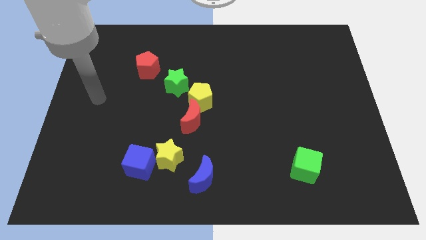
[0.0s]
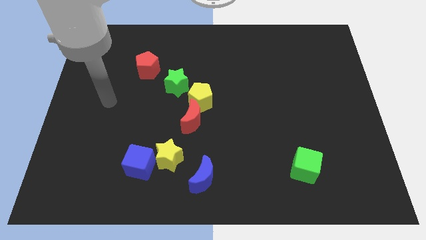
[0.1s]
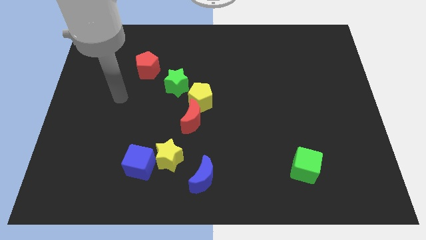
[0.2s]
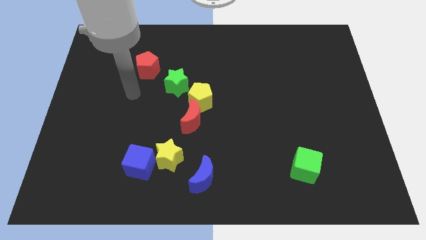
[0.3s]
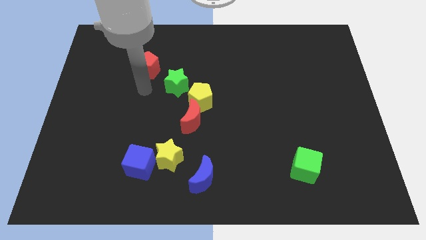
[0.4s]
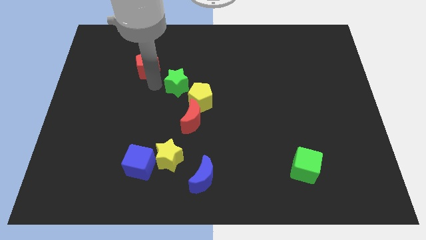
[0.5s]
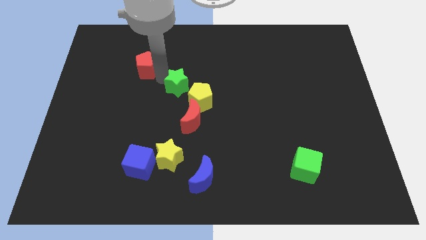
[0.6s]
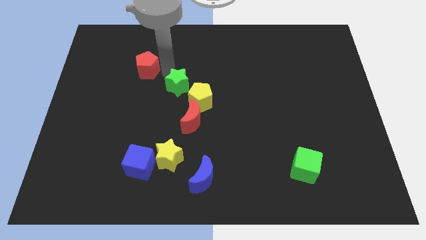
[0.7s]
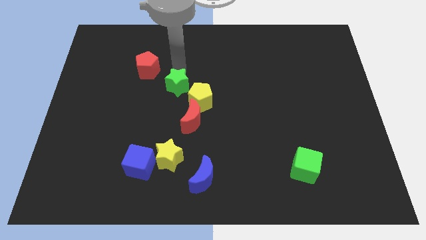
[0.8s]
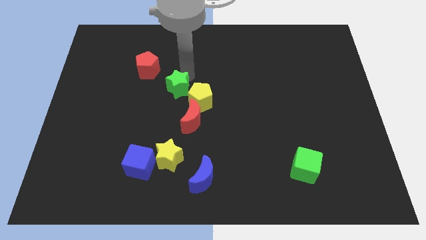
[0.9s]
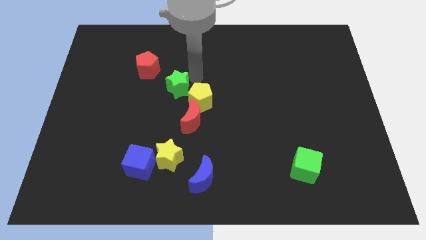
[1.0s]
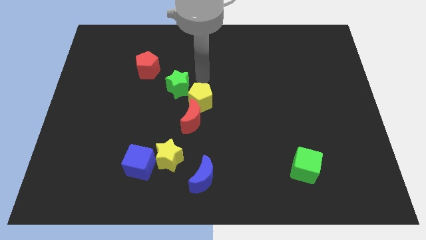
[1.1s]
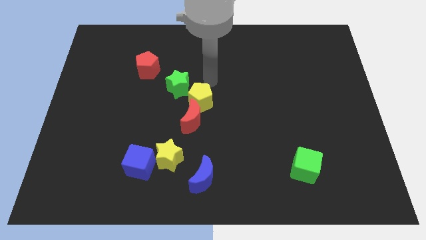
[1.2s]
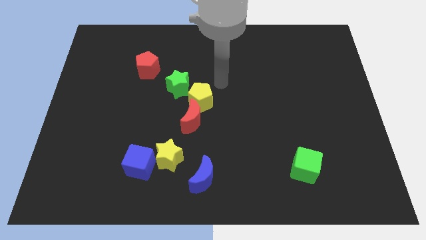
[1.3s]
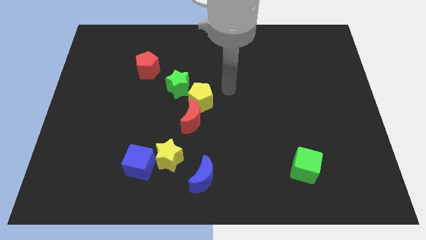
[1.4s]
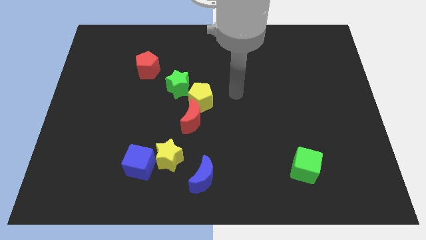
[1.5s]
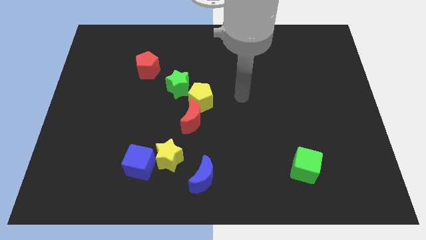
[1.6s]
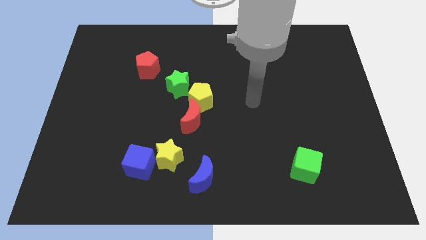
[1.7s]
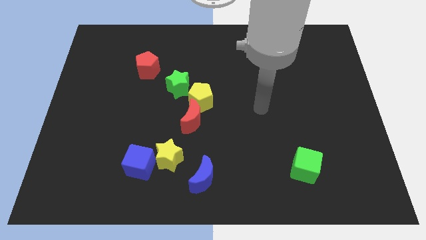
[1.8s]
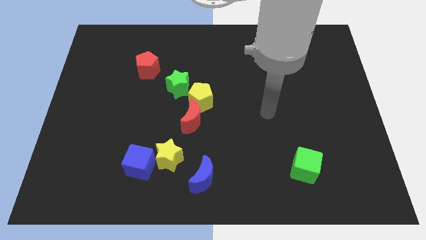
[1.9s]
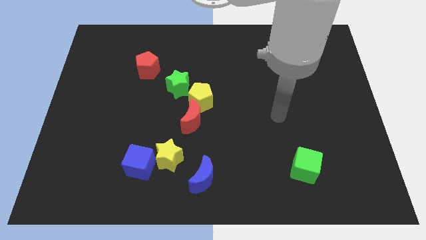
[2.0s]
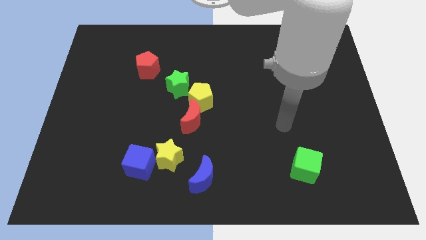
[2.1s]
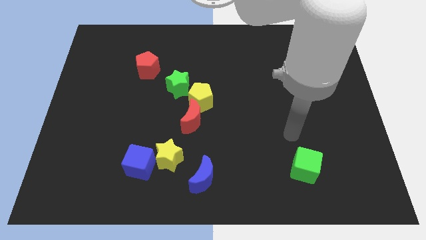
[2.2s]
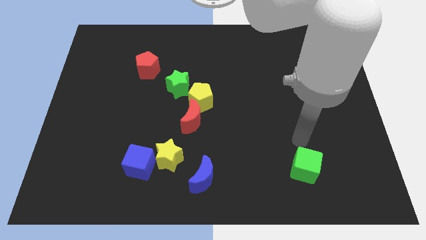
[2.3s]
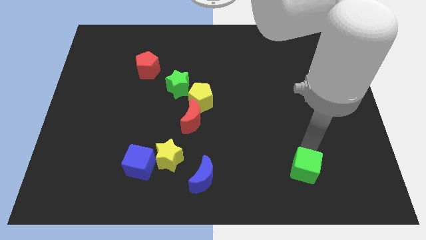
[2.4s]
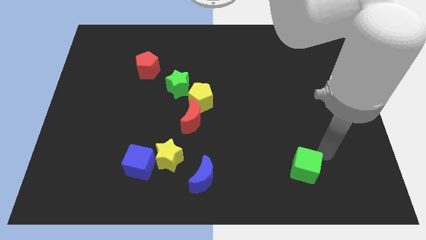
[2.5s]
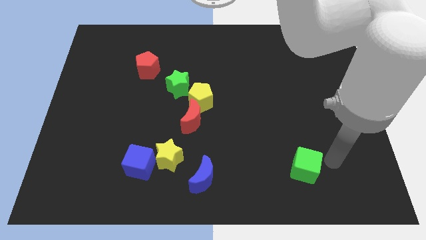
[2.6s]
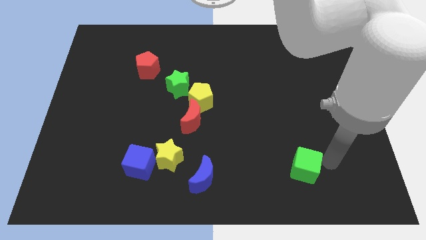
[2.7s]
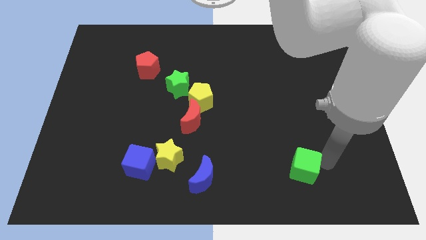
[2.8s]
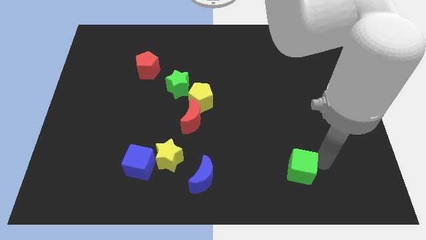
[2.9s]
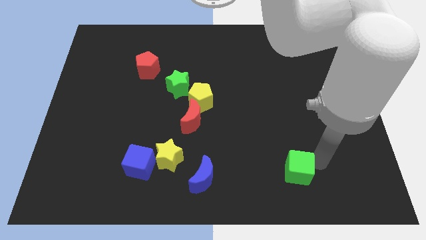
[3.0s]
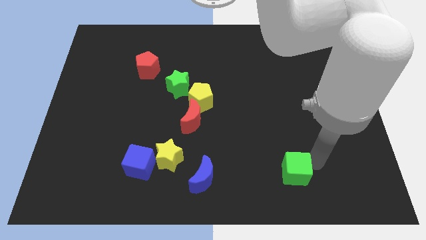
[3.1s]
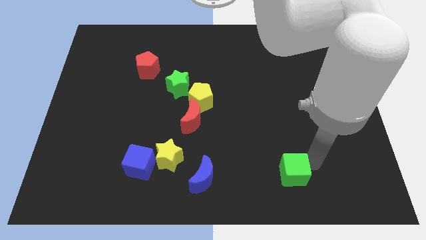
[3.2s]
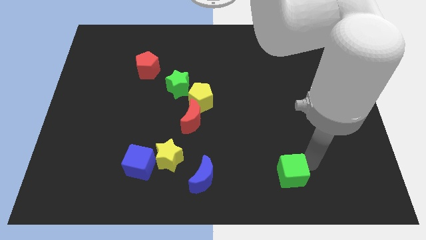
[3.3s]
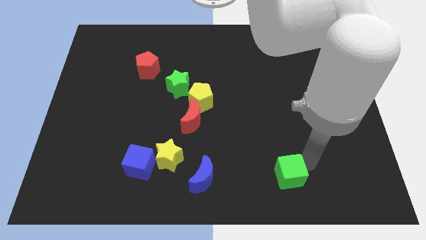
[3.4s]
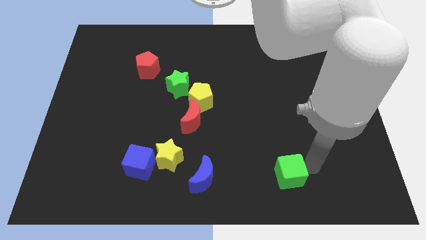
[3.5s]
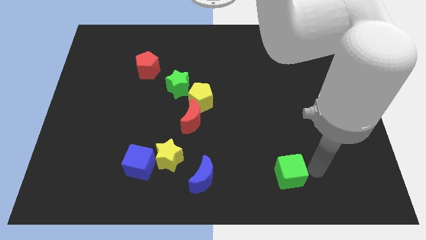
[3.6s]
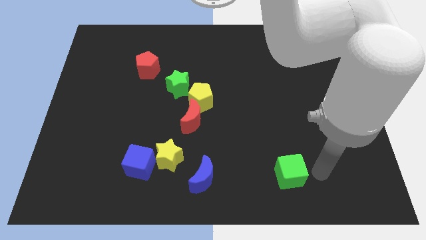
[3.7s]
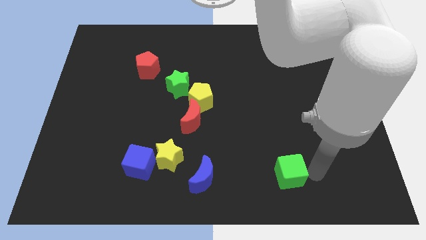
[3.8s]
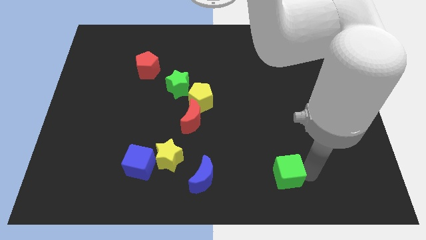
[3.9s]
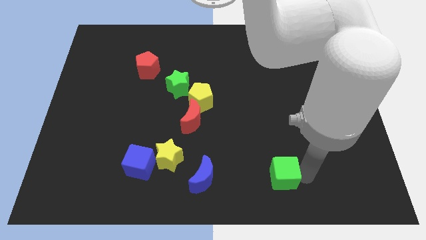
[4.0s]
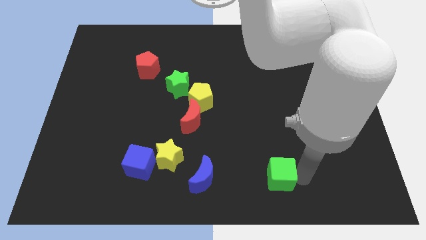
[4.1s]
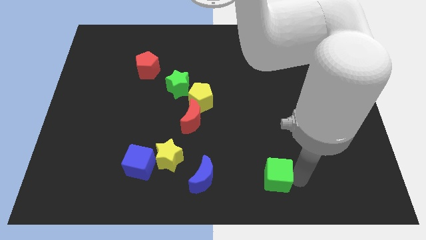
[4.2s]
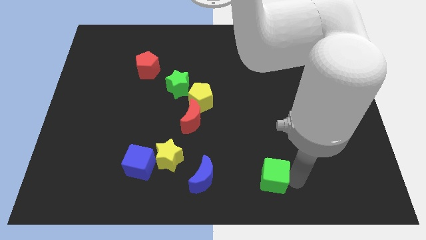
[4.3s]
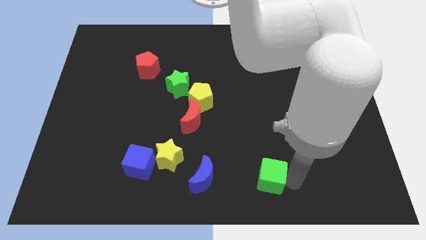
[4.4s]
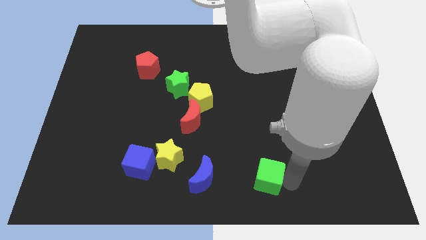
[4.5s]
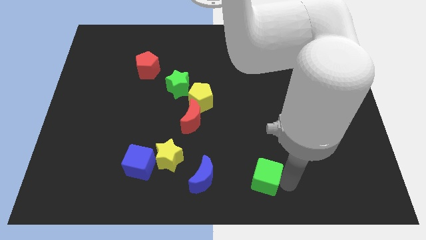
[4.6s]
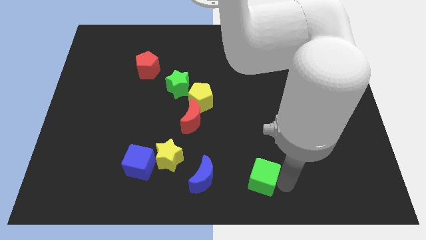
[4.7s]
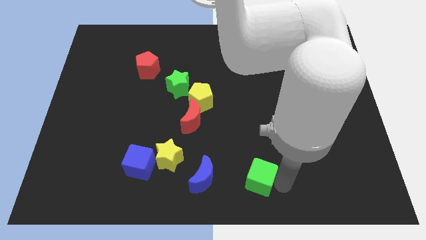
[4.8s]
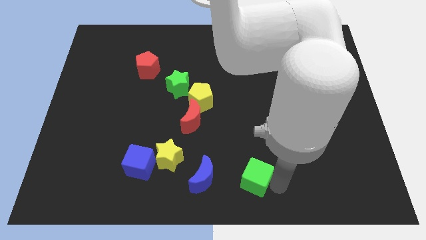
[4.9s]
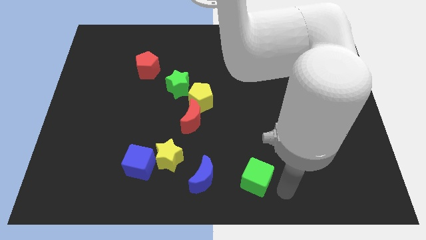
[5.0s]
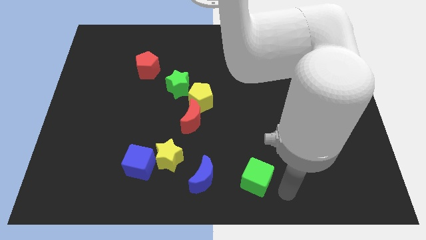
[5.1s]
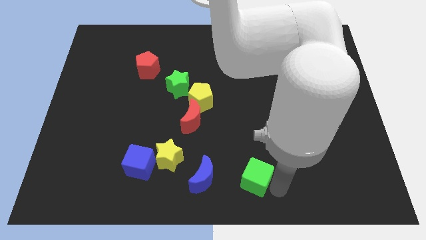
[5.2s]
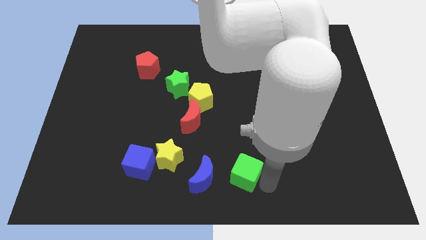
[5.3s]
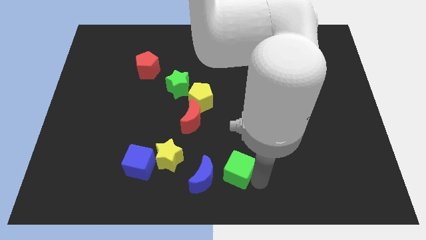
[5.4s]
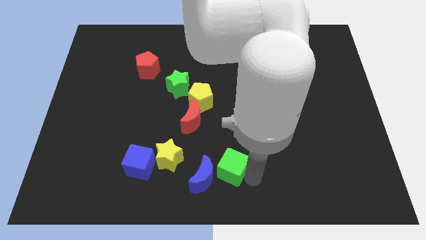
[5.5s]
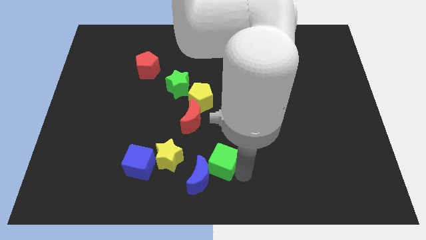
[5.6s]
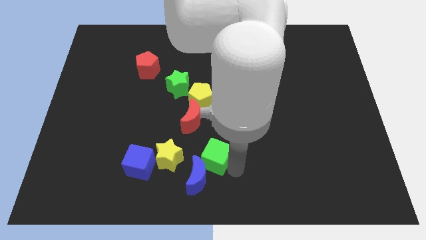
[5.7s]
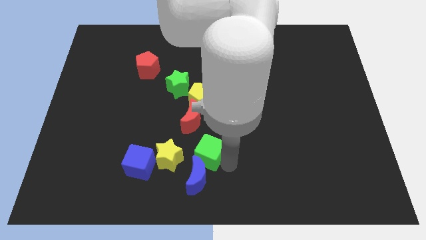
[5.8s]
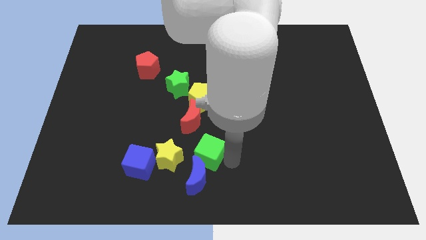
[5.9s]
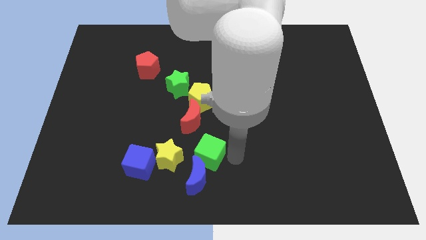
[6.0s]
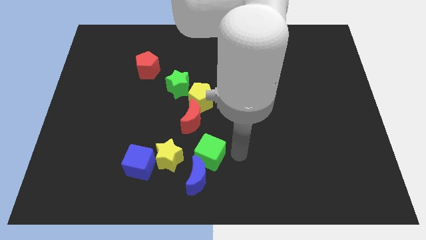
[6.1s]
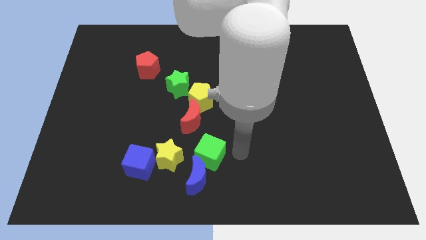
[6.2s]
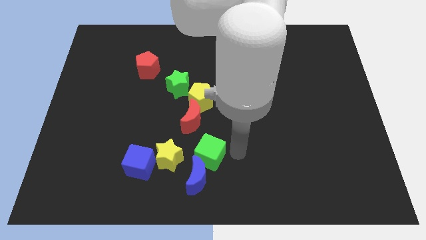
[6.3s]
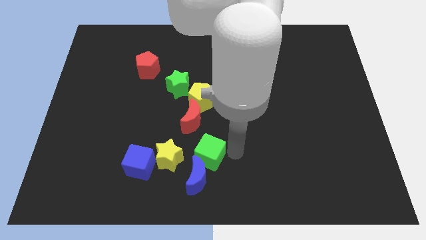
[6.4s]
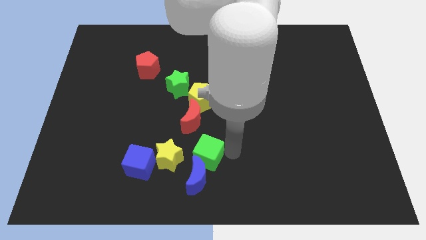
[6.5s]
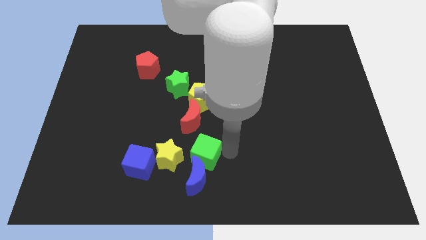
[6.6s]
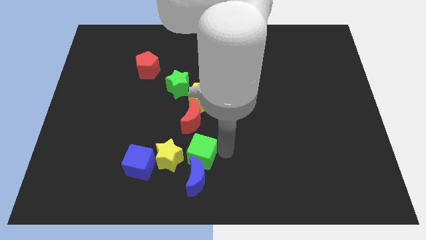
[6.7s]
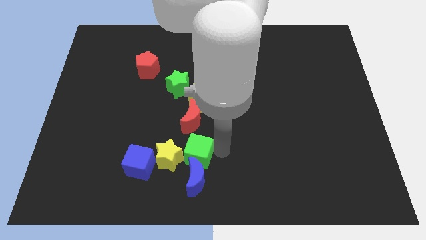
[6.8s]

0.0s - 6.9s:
put the green cube close to the yellow star

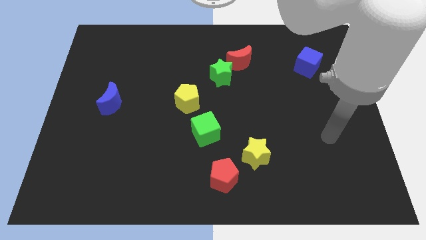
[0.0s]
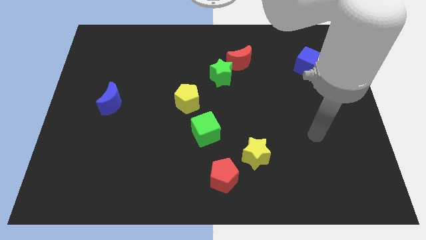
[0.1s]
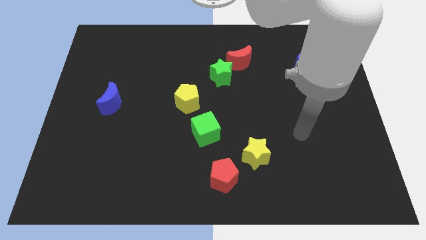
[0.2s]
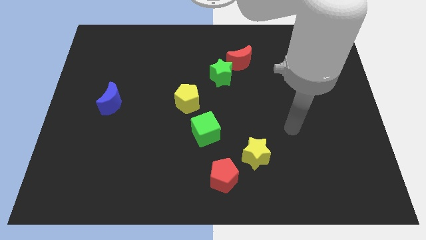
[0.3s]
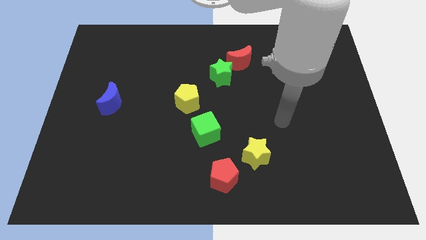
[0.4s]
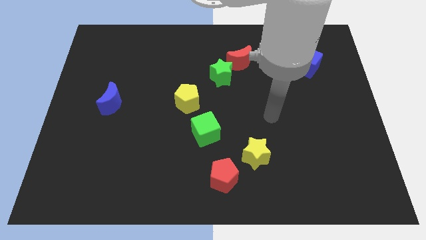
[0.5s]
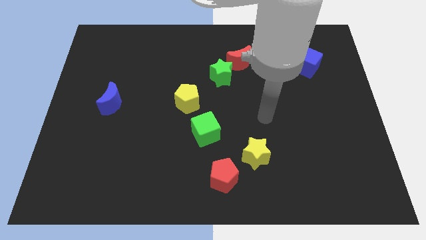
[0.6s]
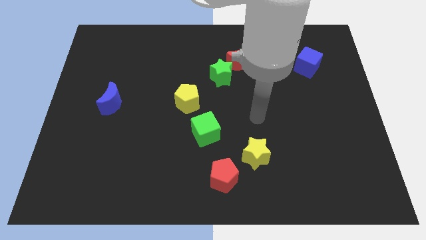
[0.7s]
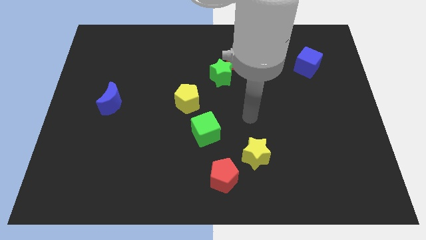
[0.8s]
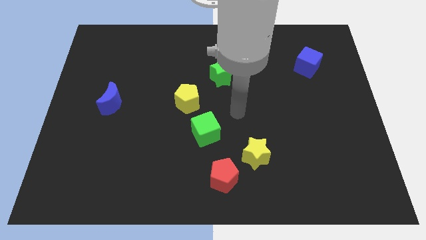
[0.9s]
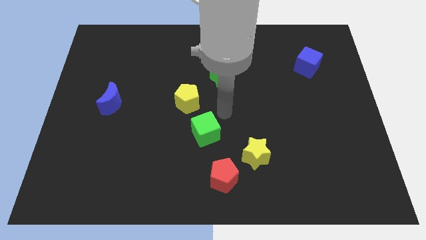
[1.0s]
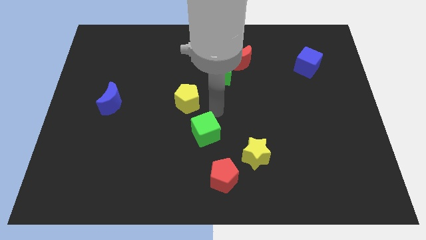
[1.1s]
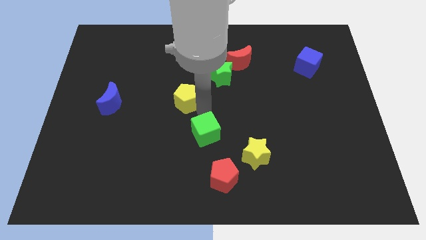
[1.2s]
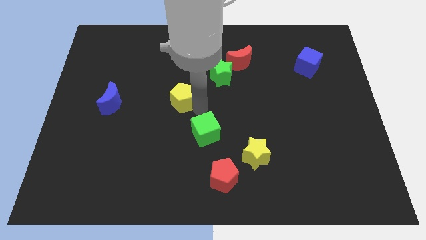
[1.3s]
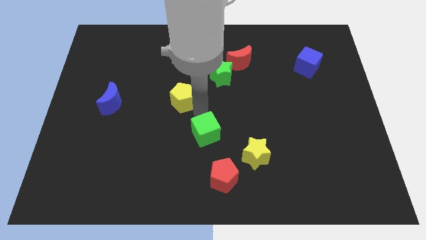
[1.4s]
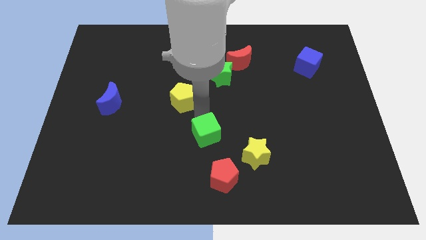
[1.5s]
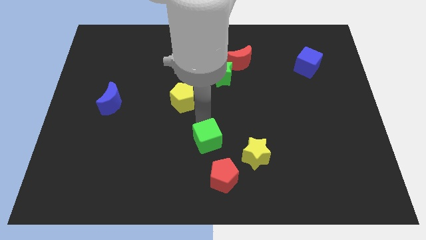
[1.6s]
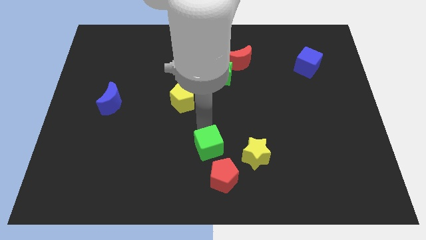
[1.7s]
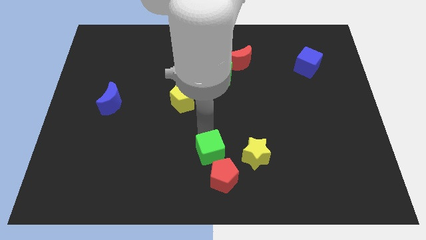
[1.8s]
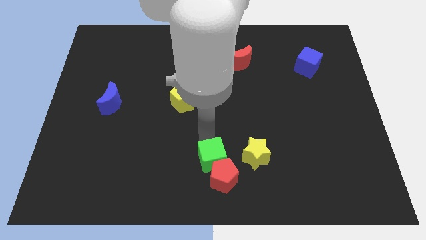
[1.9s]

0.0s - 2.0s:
move the green cube to the red pentagon
